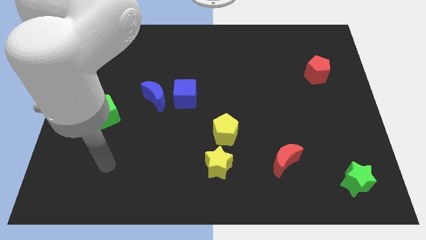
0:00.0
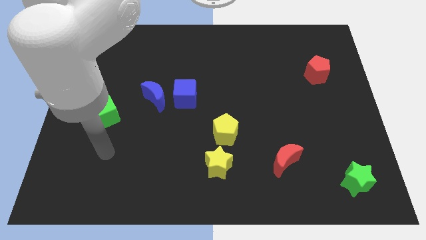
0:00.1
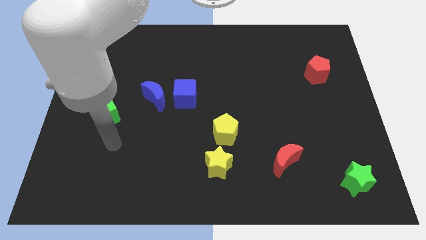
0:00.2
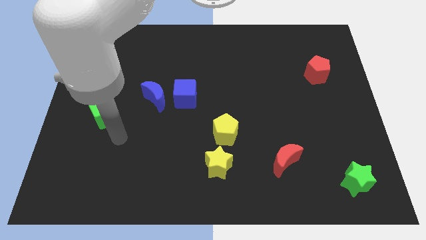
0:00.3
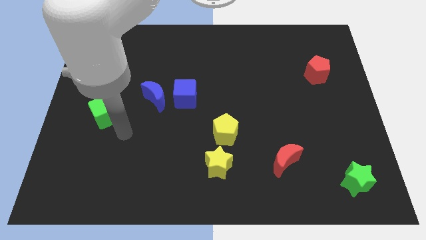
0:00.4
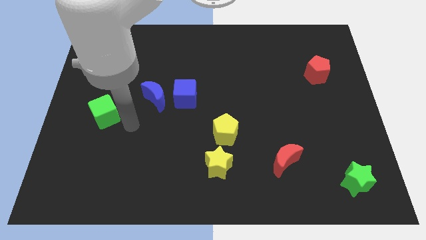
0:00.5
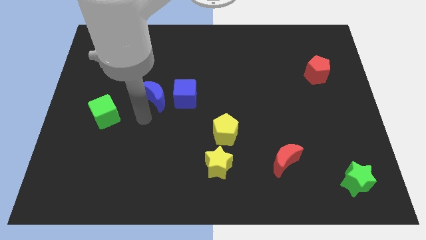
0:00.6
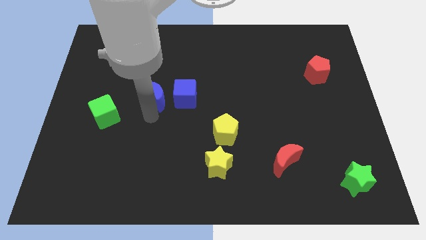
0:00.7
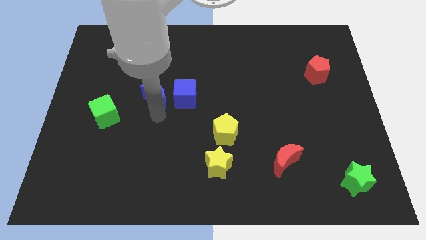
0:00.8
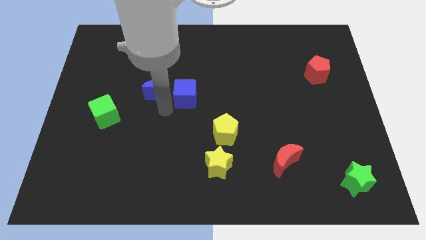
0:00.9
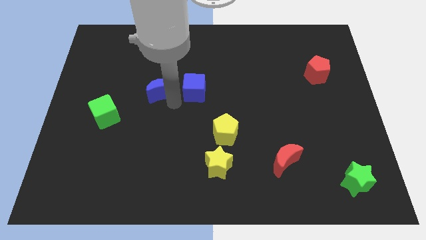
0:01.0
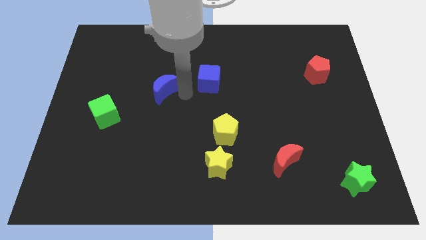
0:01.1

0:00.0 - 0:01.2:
separate the blue moon from the blue cube

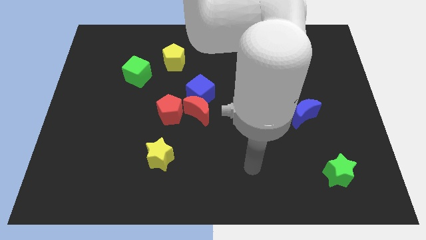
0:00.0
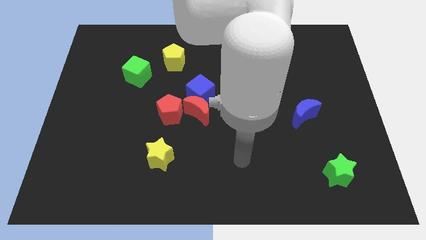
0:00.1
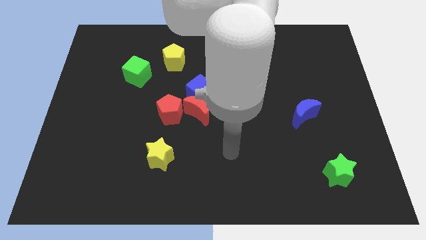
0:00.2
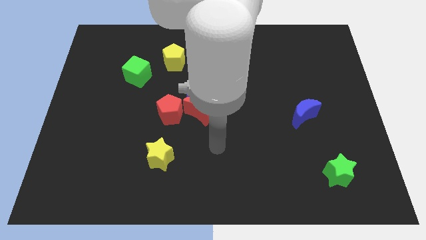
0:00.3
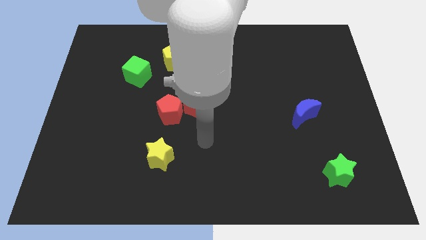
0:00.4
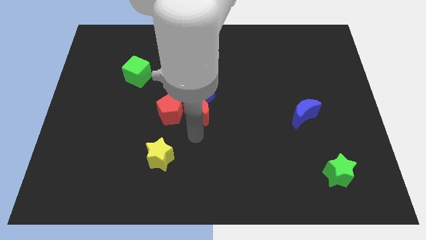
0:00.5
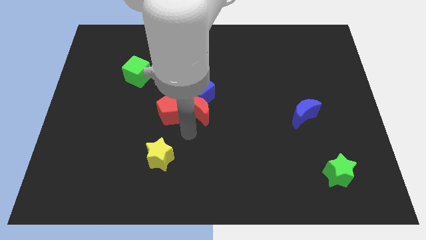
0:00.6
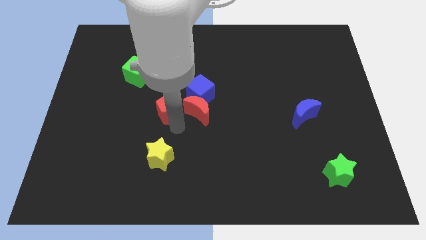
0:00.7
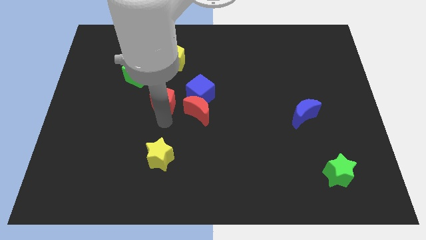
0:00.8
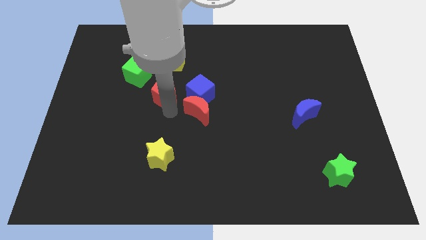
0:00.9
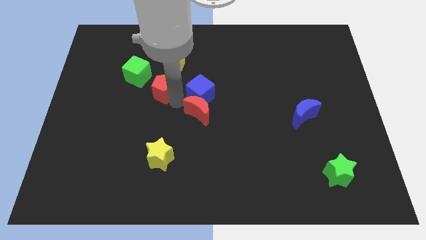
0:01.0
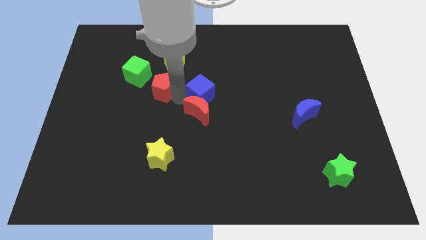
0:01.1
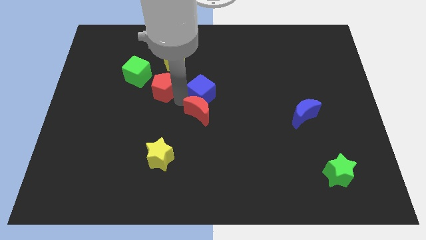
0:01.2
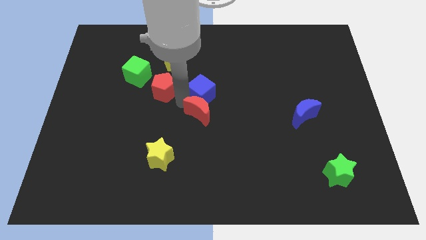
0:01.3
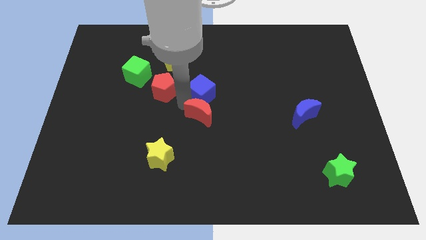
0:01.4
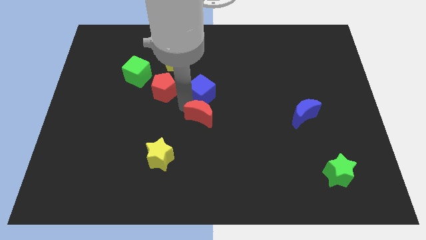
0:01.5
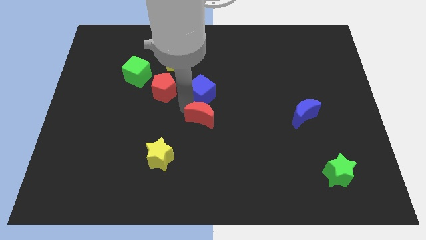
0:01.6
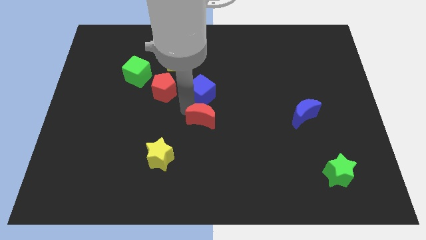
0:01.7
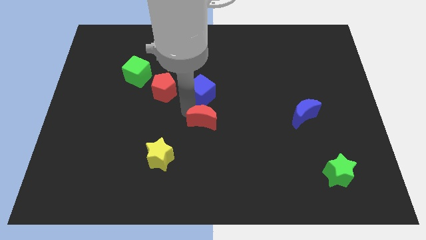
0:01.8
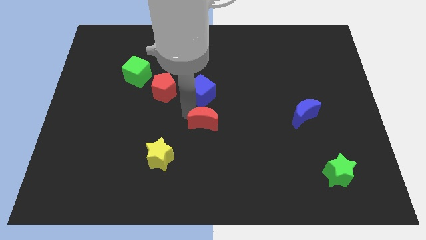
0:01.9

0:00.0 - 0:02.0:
move the red moon away from the blue cube and red pentagon

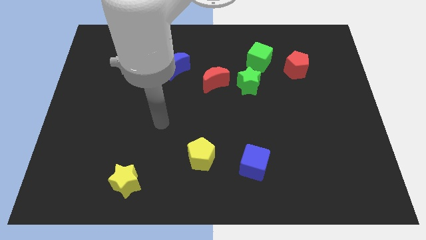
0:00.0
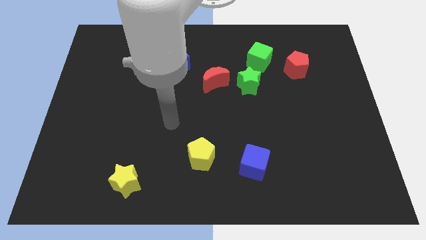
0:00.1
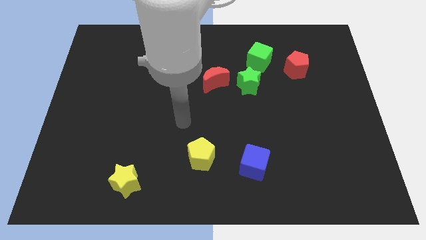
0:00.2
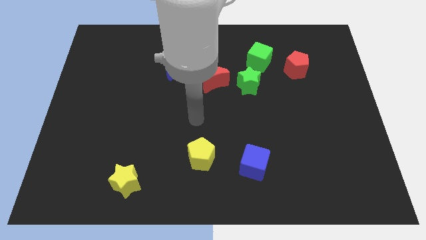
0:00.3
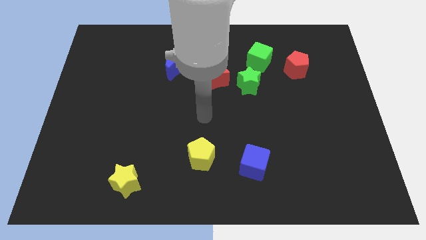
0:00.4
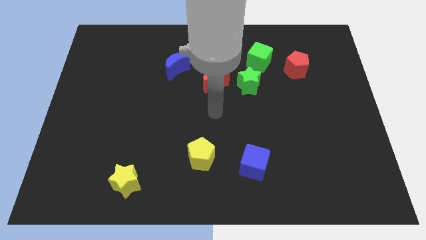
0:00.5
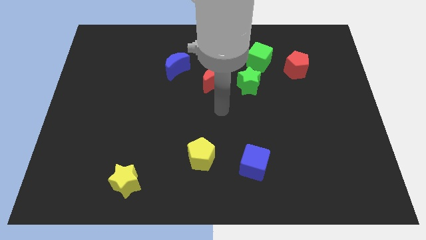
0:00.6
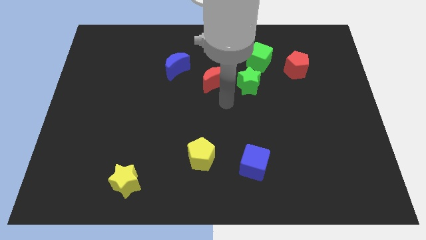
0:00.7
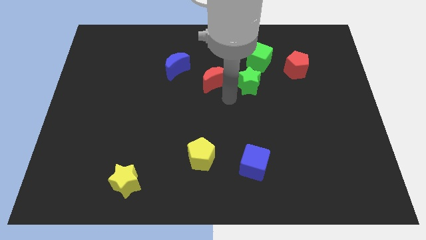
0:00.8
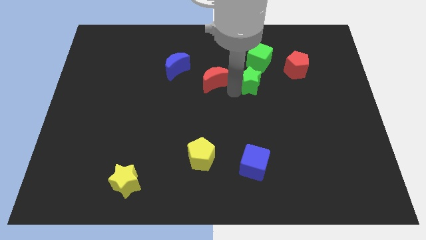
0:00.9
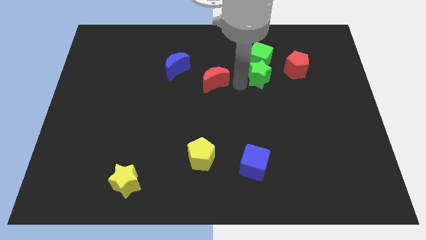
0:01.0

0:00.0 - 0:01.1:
separate the red moon from the green star

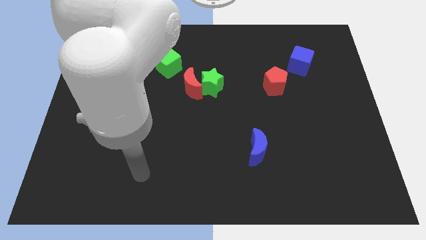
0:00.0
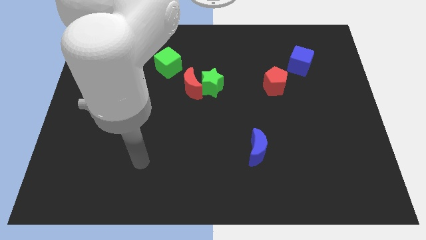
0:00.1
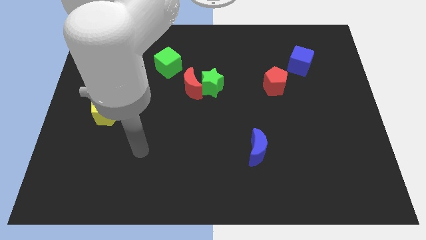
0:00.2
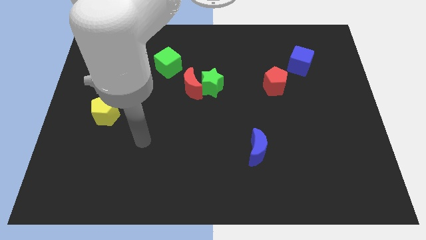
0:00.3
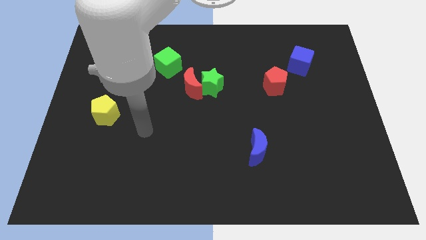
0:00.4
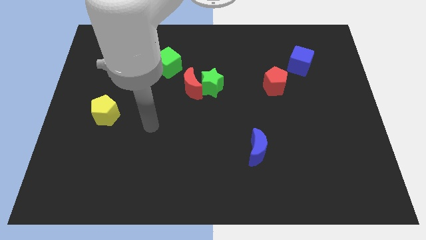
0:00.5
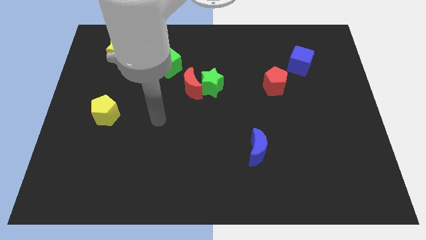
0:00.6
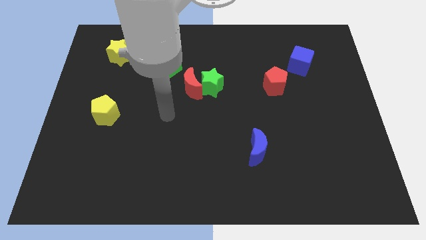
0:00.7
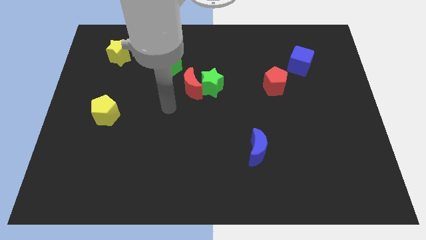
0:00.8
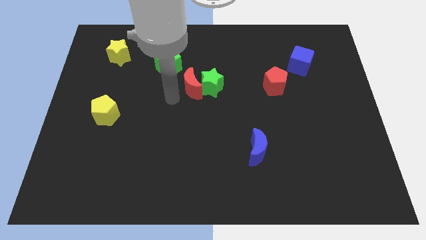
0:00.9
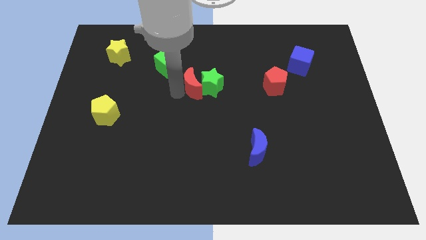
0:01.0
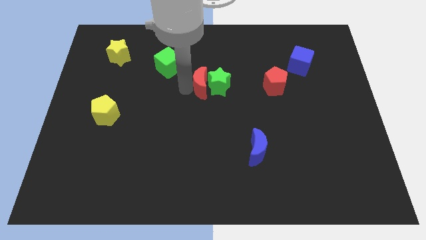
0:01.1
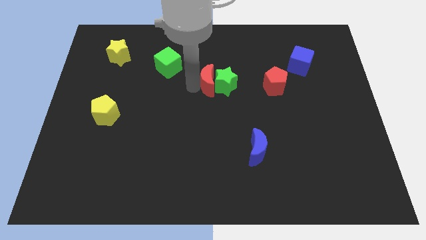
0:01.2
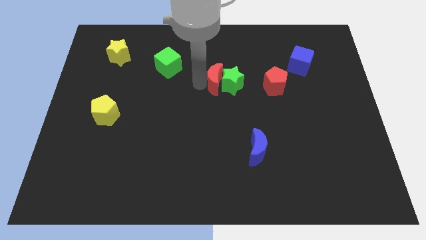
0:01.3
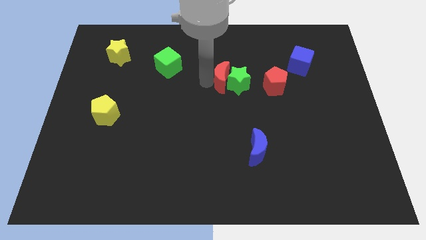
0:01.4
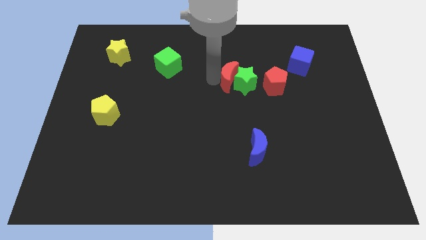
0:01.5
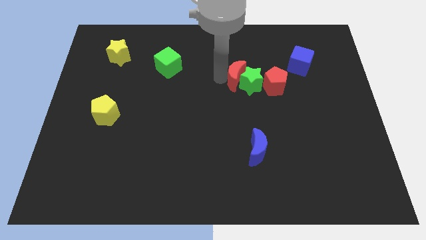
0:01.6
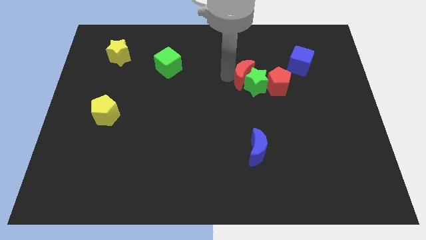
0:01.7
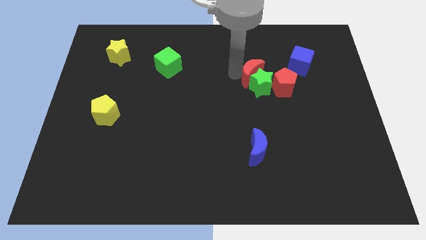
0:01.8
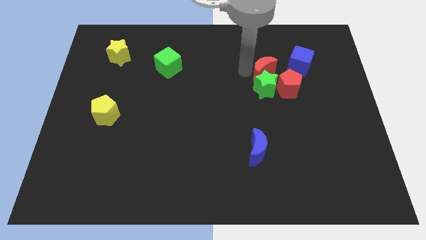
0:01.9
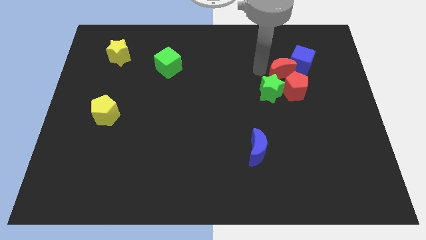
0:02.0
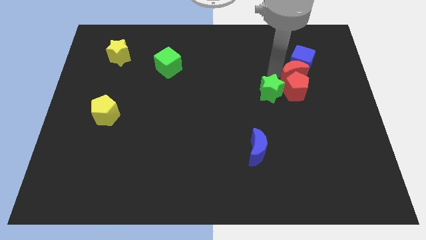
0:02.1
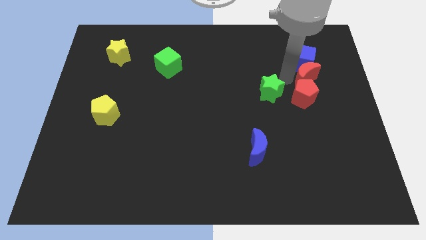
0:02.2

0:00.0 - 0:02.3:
move the green star away from the red moon

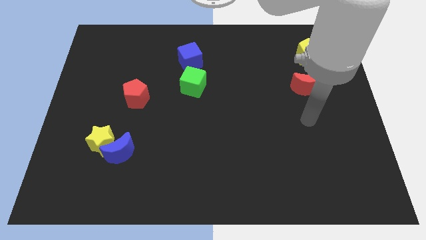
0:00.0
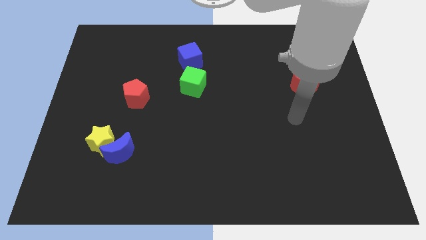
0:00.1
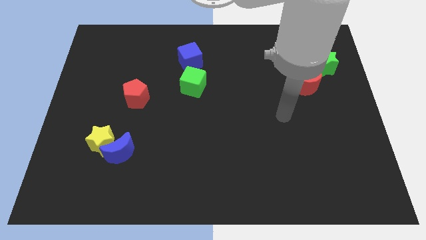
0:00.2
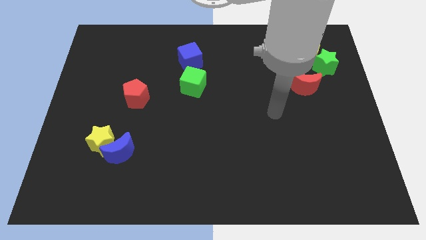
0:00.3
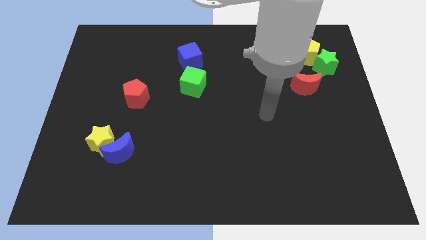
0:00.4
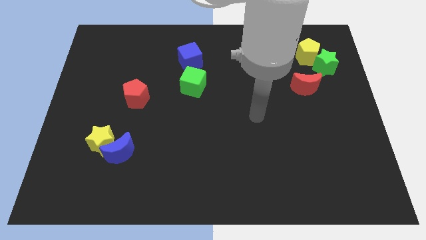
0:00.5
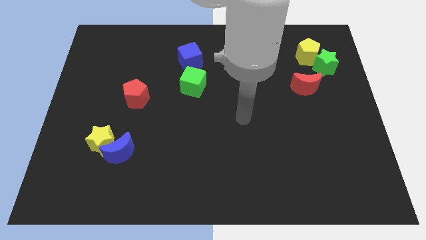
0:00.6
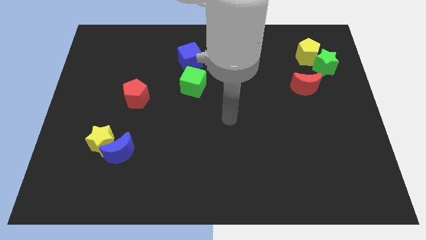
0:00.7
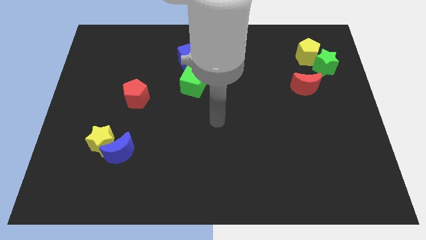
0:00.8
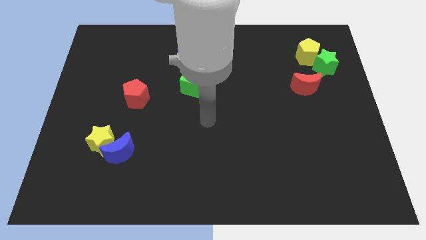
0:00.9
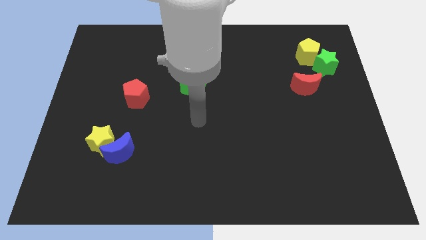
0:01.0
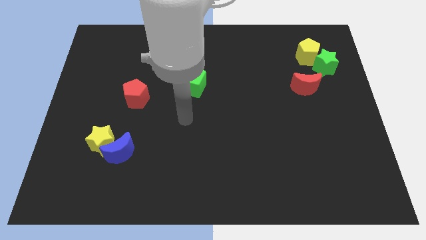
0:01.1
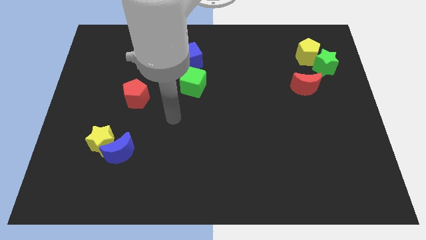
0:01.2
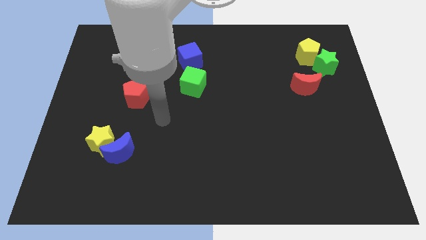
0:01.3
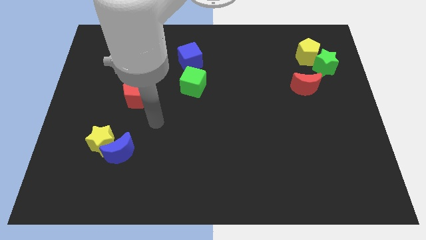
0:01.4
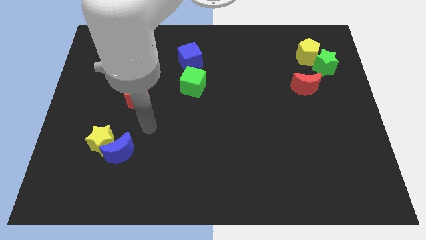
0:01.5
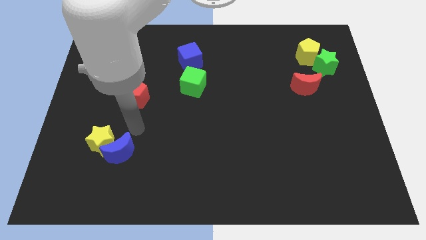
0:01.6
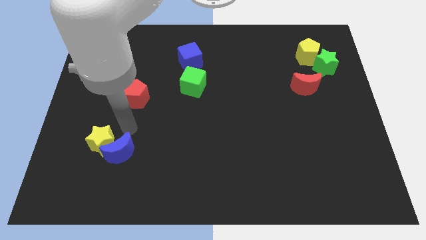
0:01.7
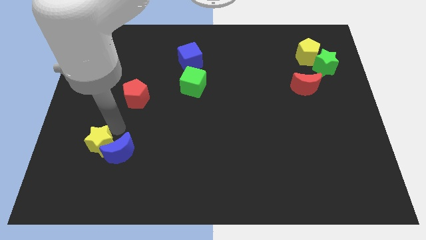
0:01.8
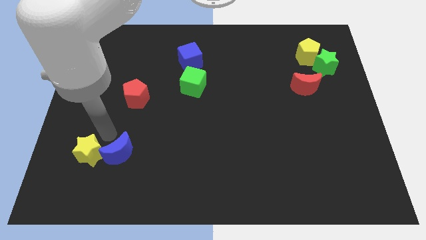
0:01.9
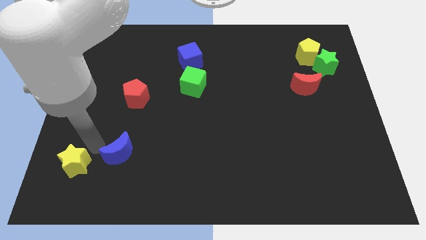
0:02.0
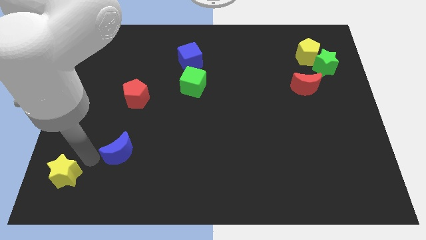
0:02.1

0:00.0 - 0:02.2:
pull the blue moon apart from the yellow star

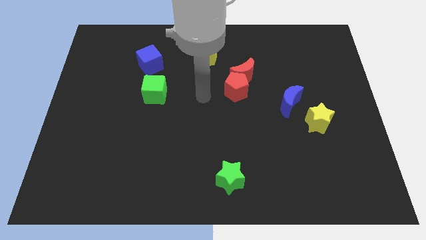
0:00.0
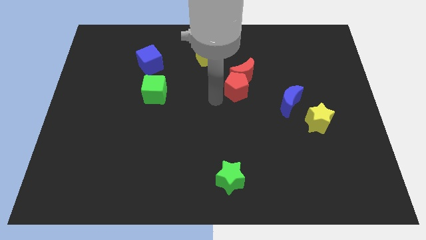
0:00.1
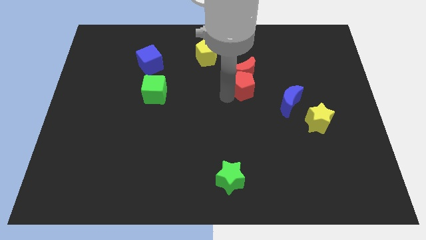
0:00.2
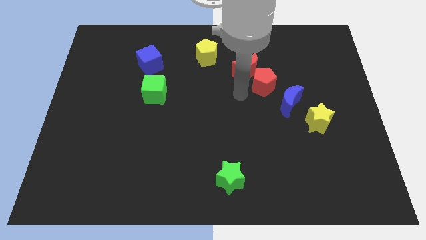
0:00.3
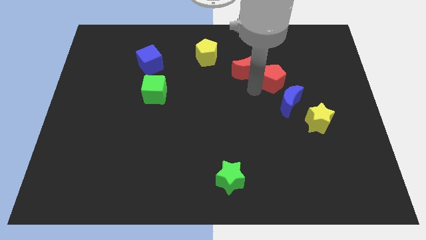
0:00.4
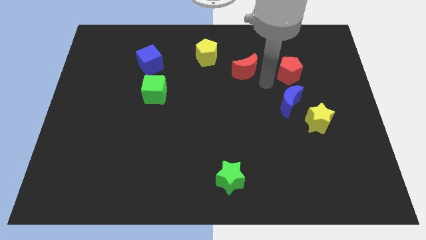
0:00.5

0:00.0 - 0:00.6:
move the red moon away from the red pentagon
